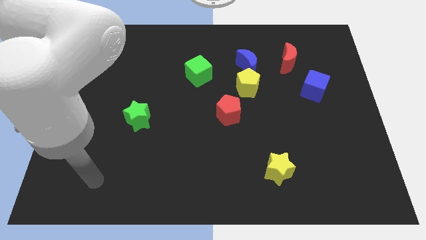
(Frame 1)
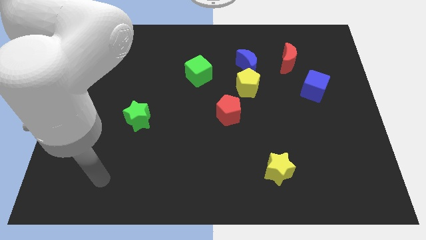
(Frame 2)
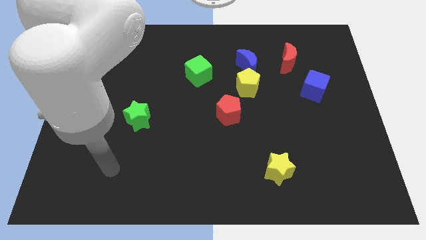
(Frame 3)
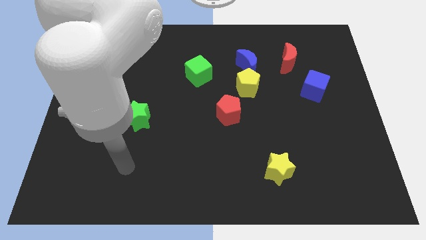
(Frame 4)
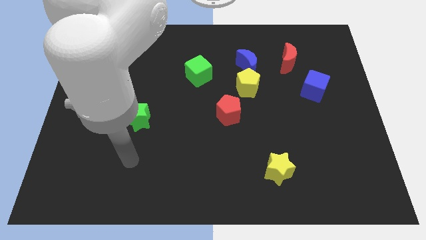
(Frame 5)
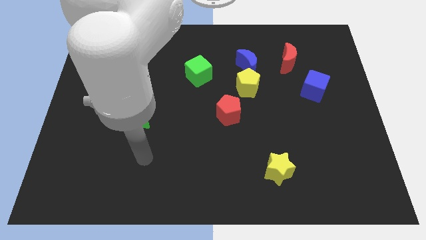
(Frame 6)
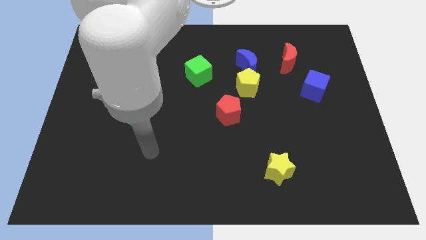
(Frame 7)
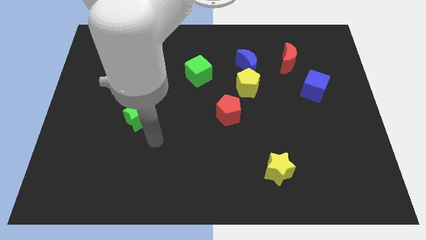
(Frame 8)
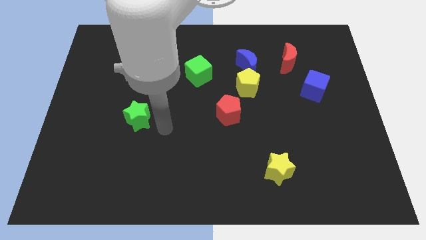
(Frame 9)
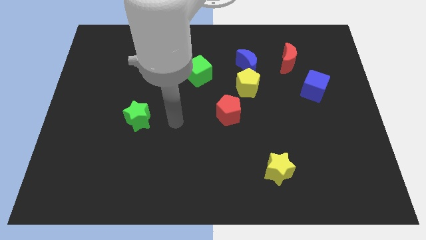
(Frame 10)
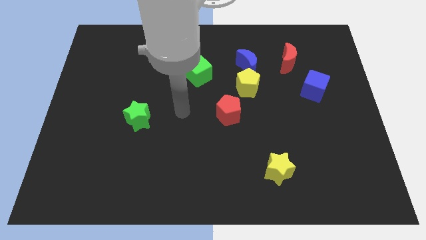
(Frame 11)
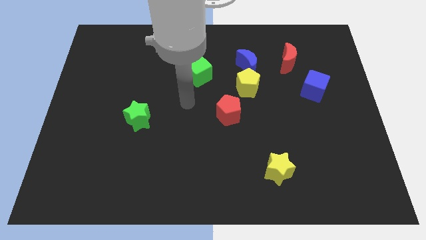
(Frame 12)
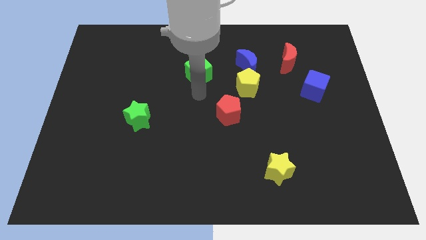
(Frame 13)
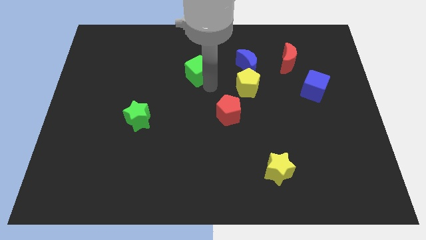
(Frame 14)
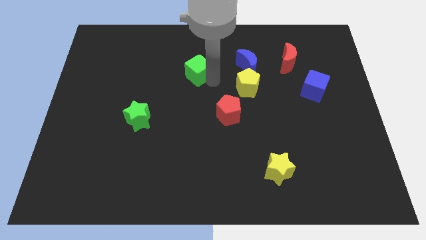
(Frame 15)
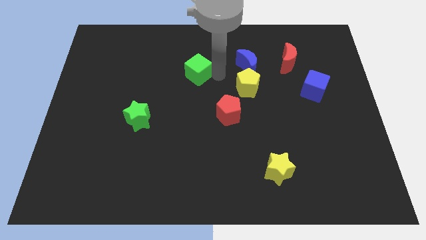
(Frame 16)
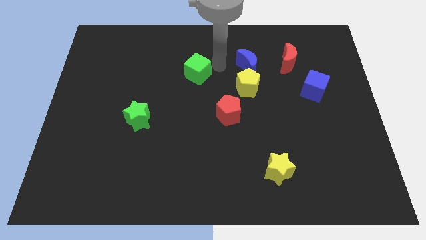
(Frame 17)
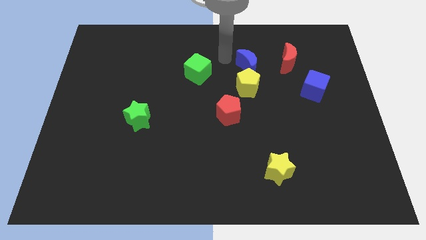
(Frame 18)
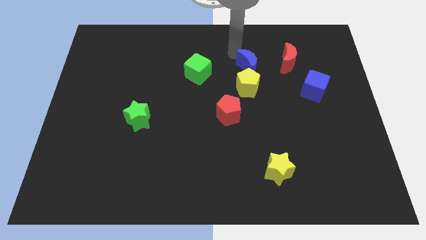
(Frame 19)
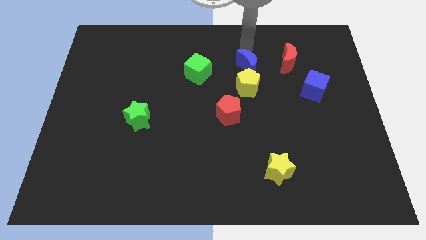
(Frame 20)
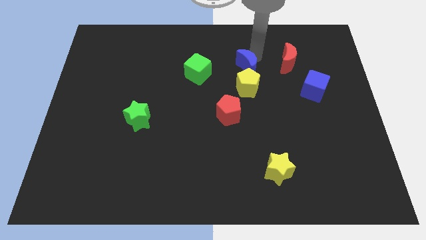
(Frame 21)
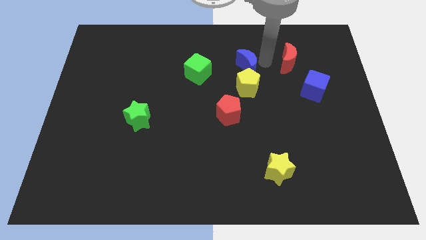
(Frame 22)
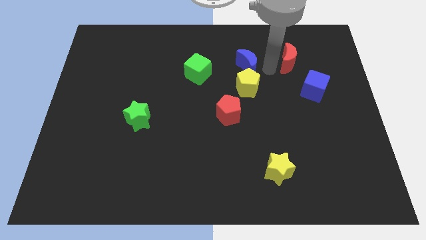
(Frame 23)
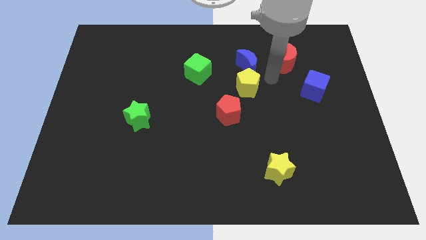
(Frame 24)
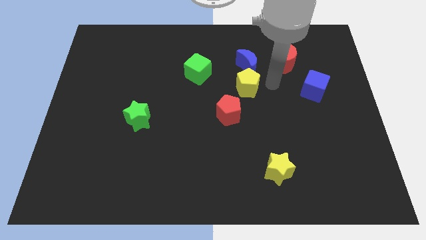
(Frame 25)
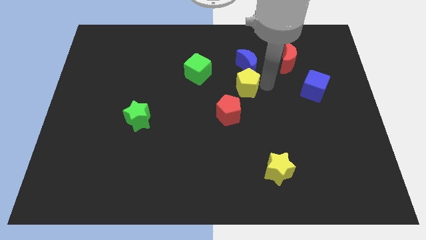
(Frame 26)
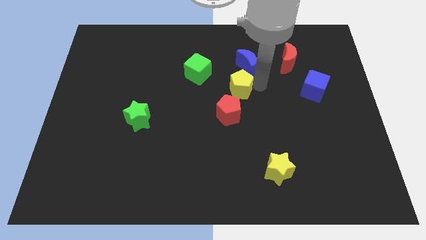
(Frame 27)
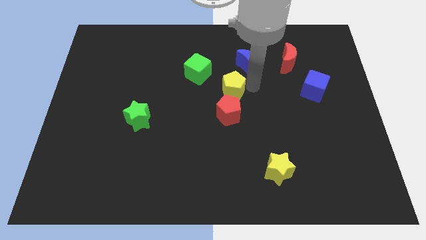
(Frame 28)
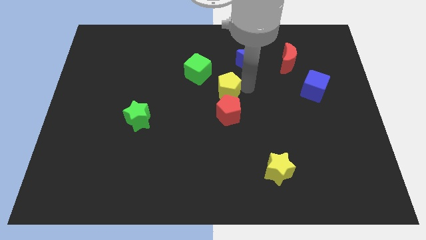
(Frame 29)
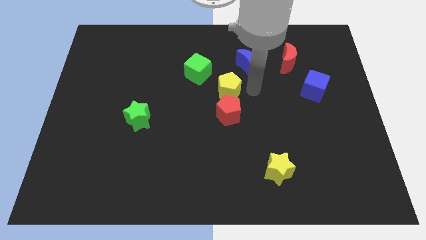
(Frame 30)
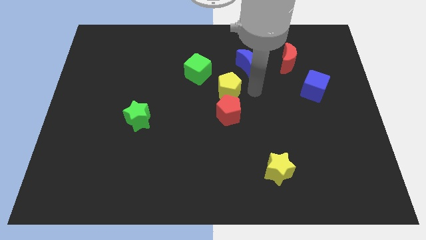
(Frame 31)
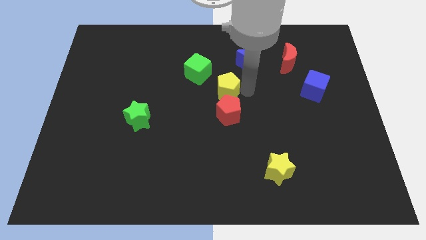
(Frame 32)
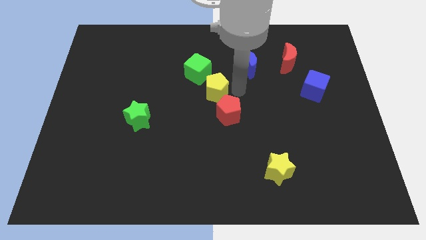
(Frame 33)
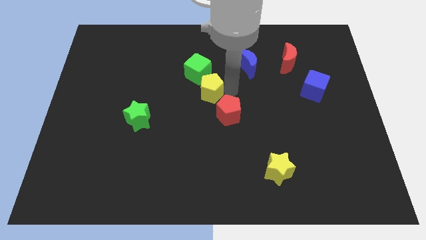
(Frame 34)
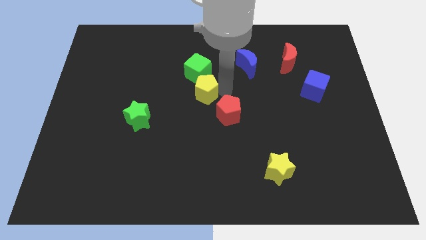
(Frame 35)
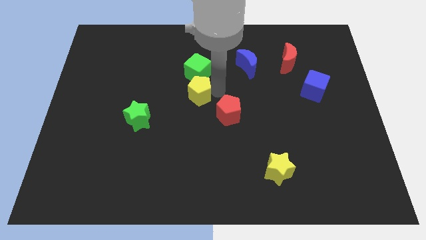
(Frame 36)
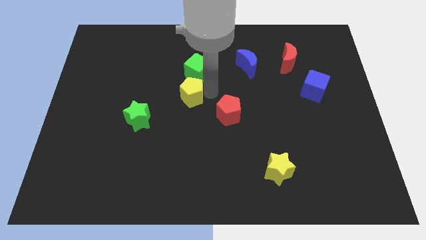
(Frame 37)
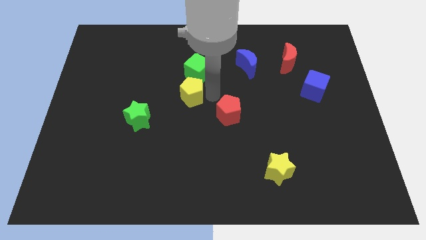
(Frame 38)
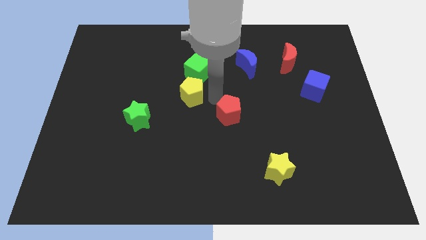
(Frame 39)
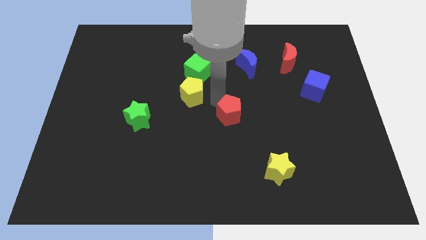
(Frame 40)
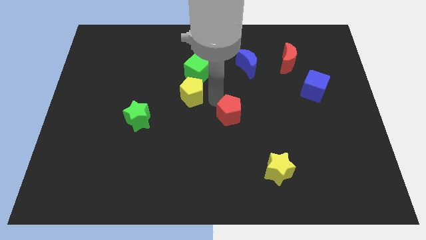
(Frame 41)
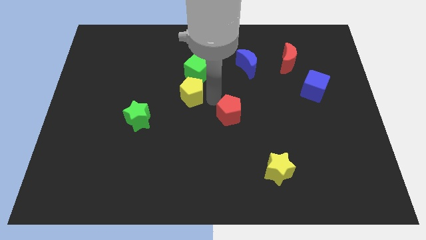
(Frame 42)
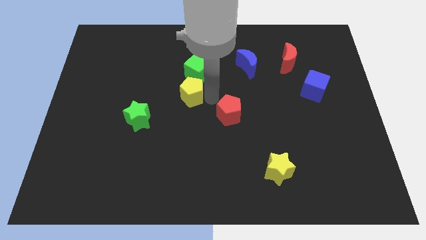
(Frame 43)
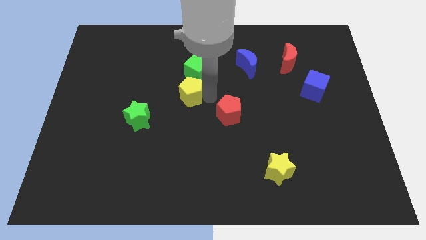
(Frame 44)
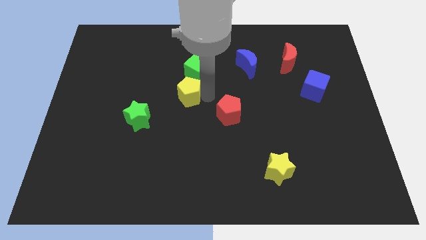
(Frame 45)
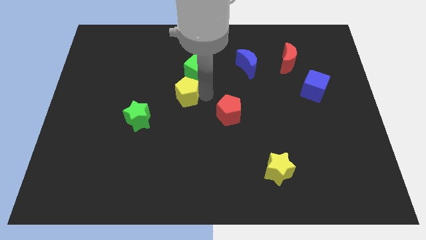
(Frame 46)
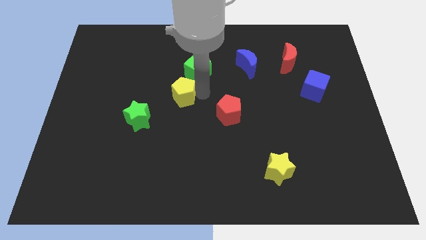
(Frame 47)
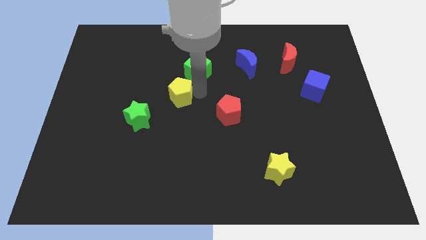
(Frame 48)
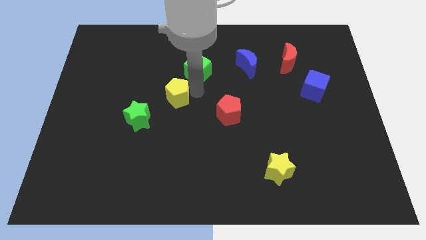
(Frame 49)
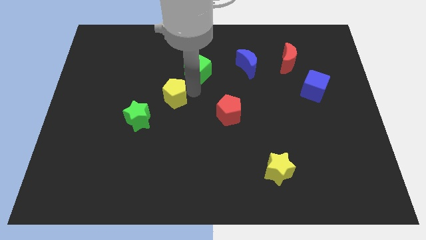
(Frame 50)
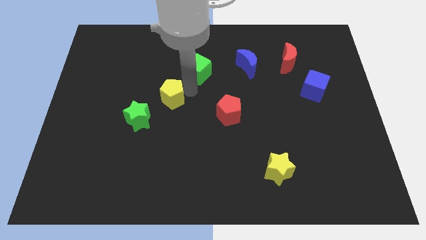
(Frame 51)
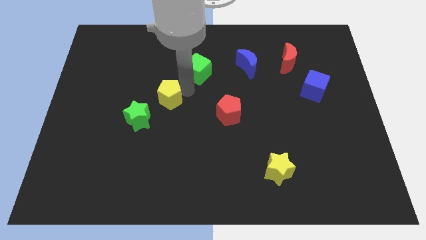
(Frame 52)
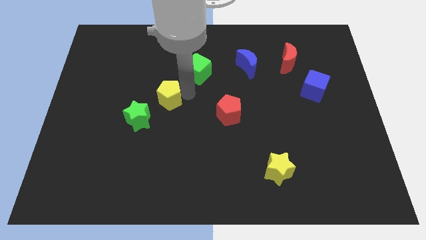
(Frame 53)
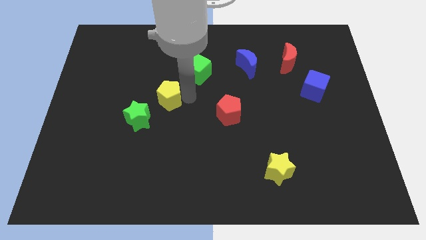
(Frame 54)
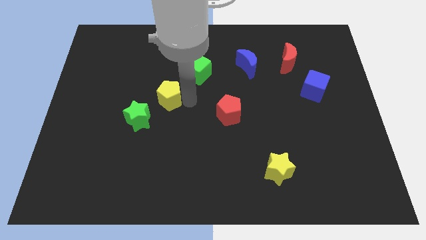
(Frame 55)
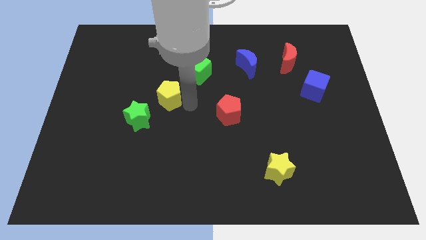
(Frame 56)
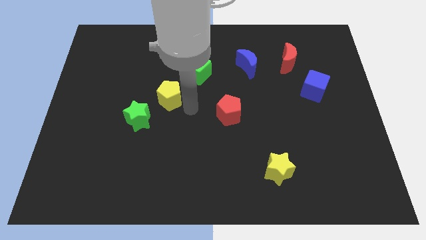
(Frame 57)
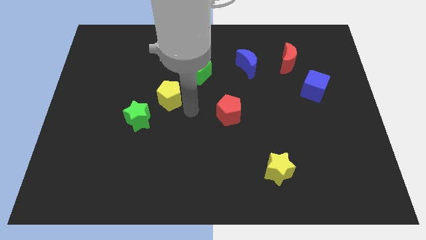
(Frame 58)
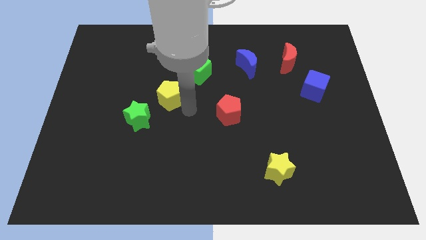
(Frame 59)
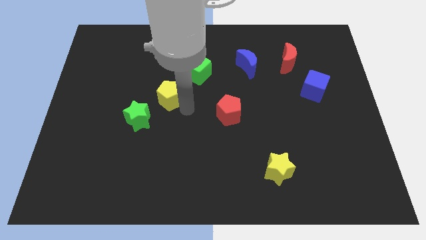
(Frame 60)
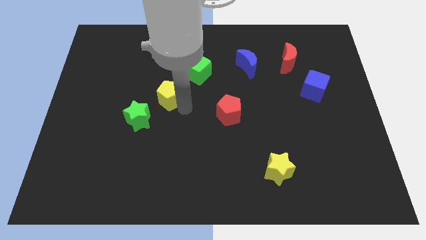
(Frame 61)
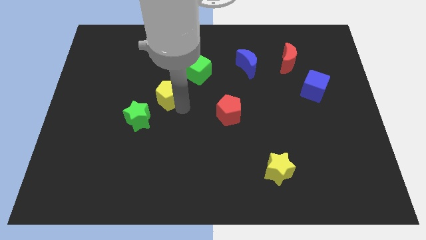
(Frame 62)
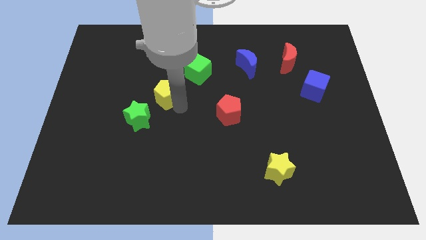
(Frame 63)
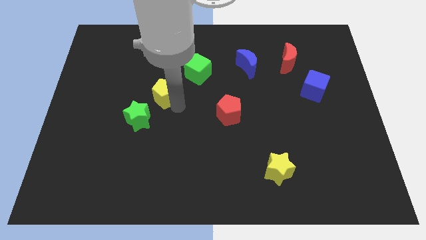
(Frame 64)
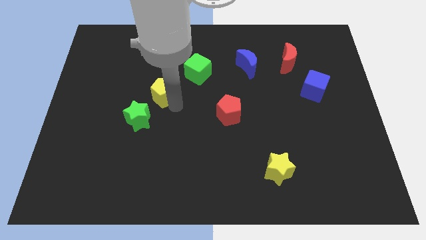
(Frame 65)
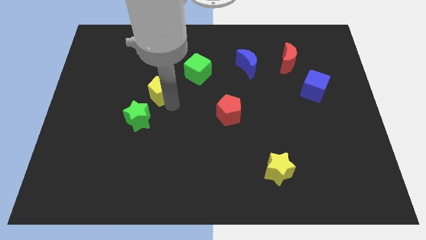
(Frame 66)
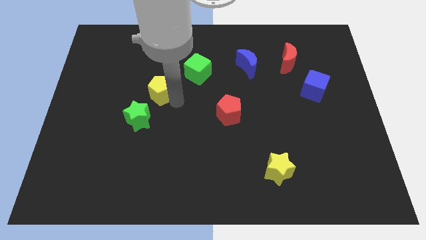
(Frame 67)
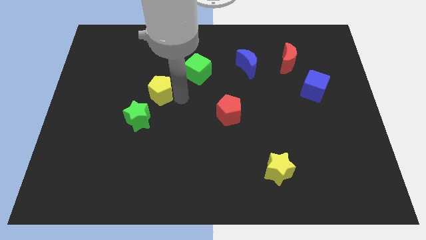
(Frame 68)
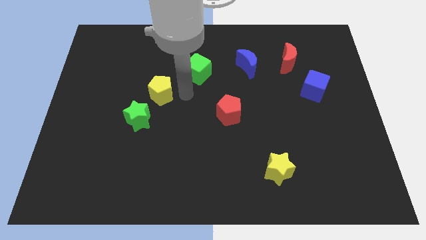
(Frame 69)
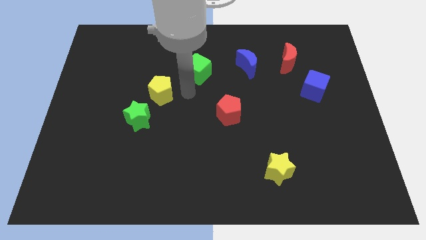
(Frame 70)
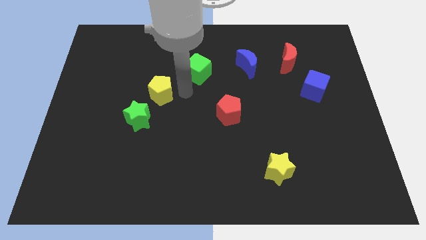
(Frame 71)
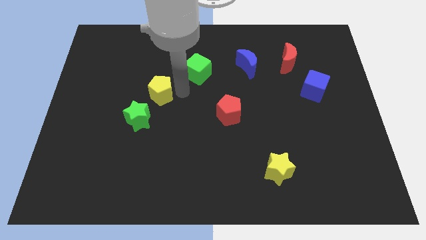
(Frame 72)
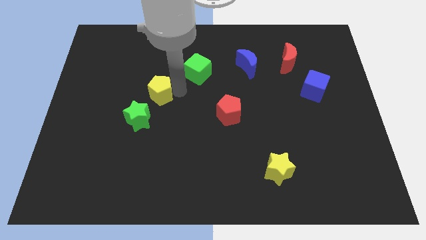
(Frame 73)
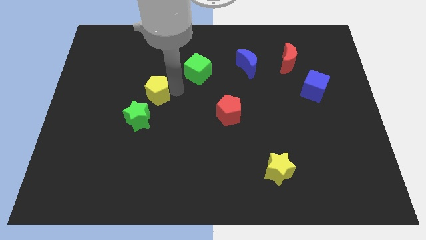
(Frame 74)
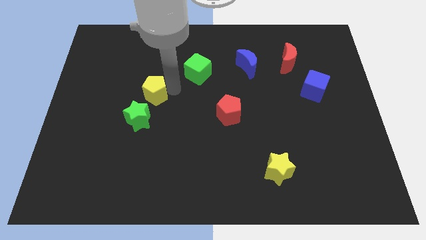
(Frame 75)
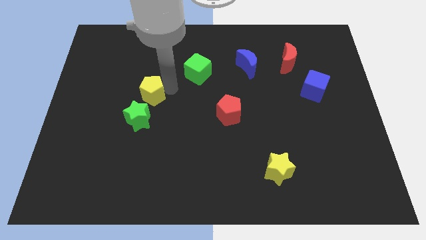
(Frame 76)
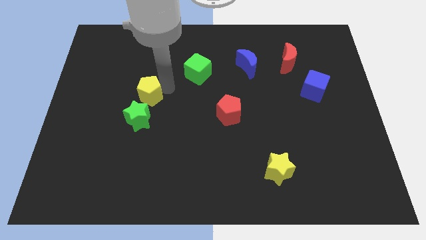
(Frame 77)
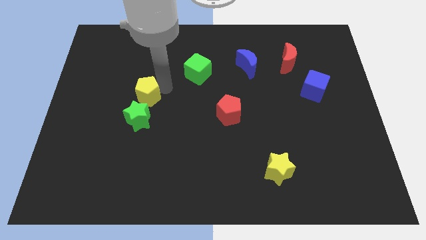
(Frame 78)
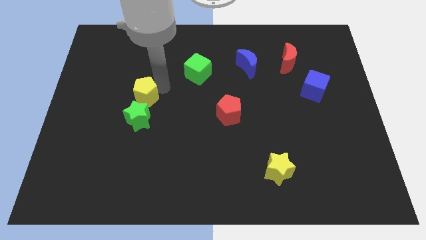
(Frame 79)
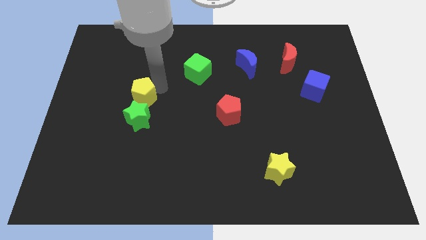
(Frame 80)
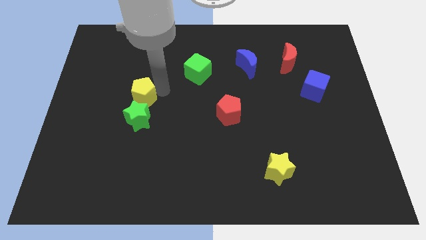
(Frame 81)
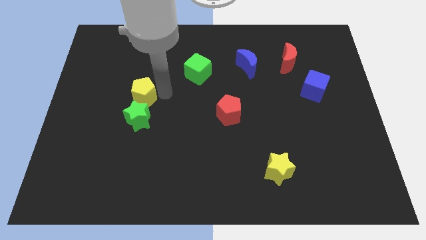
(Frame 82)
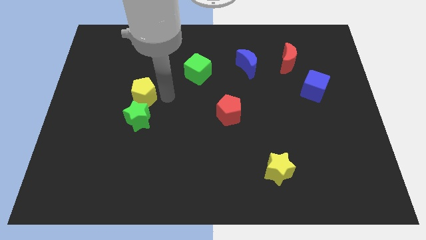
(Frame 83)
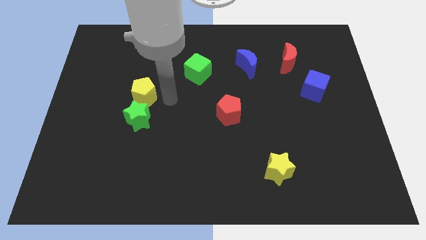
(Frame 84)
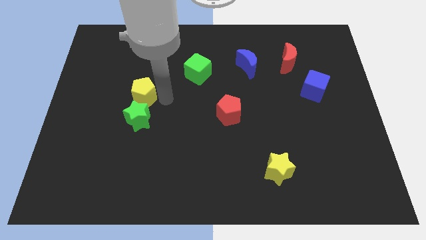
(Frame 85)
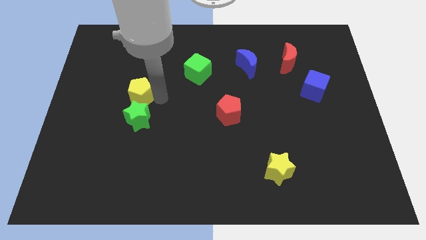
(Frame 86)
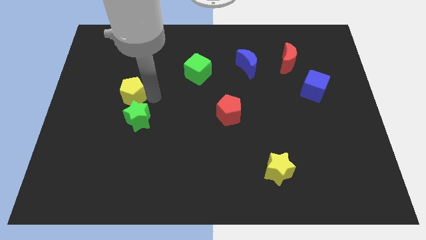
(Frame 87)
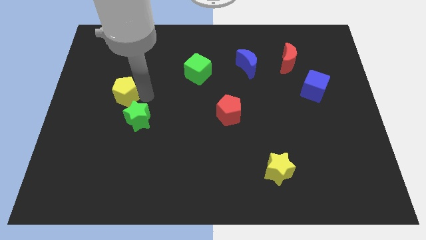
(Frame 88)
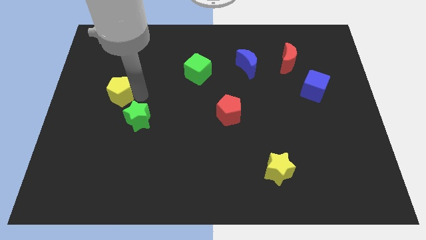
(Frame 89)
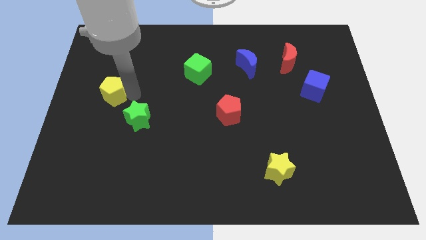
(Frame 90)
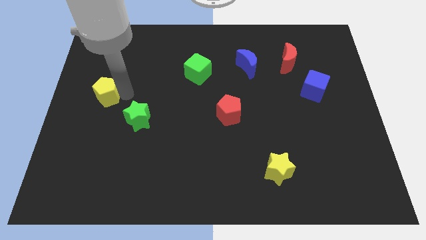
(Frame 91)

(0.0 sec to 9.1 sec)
put the yellow pentagon to the center left
